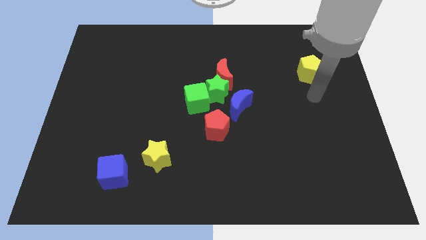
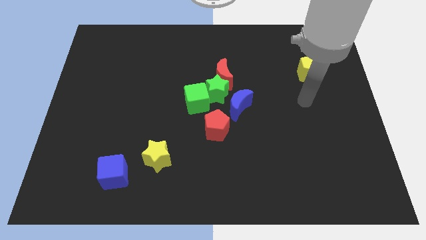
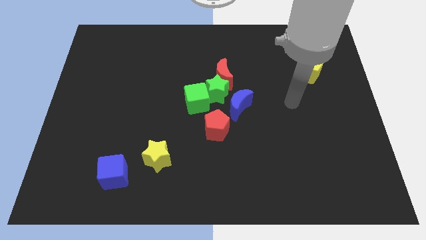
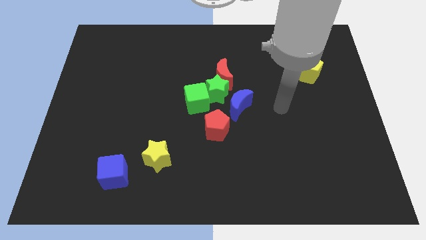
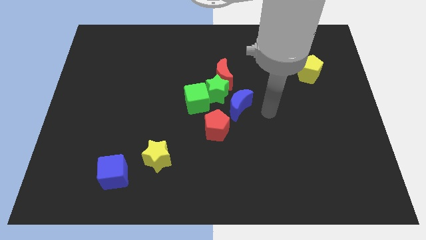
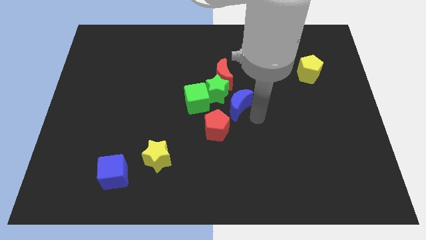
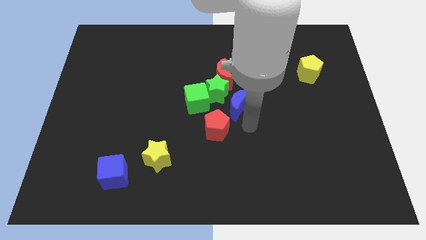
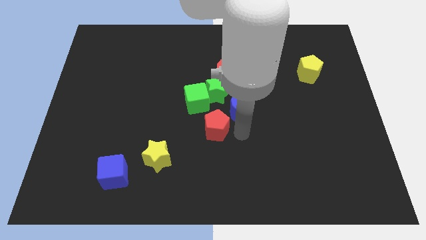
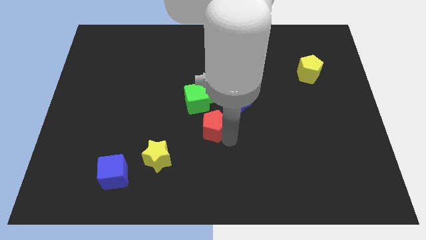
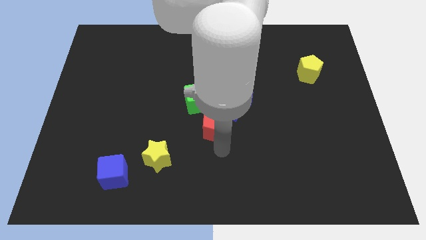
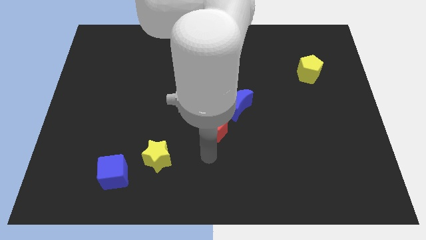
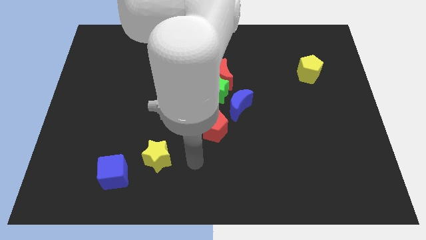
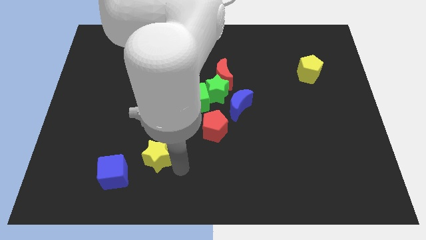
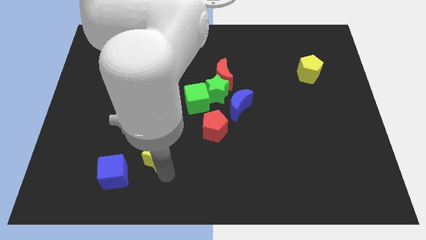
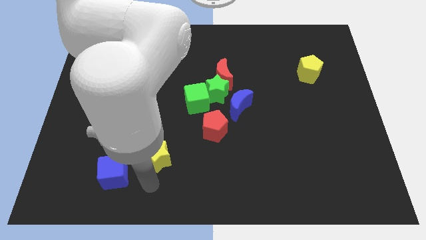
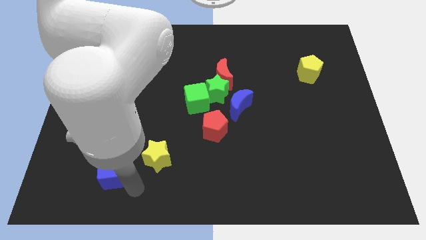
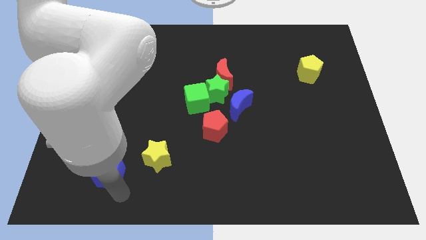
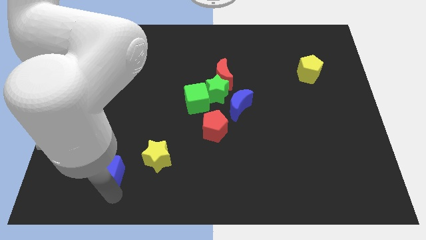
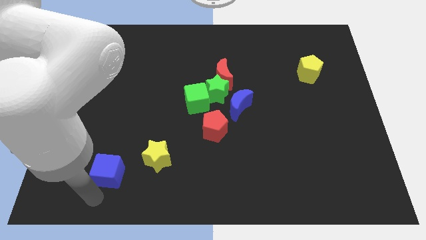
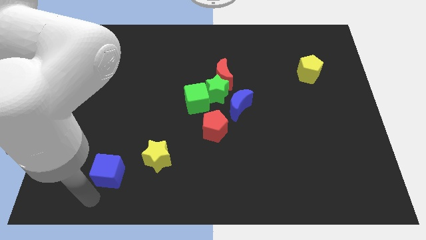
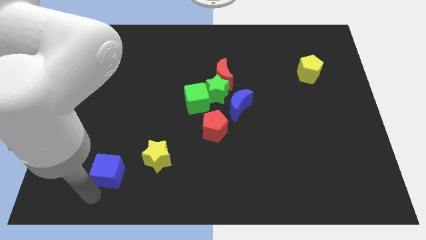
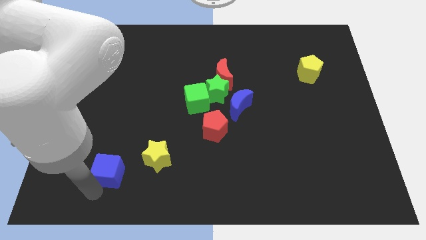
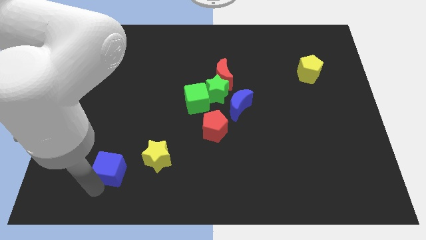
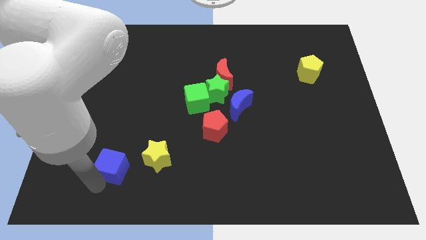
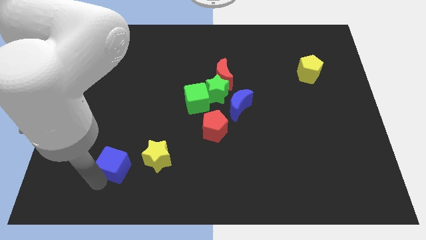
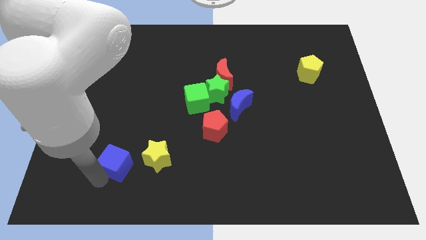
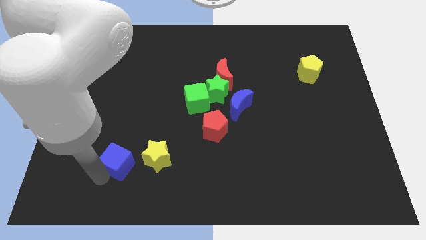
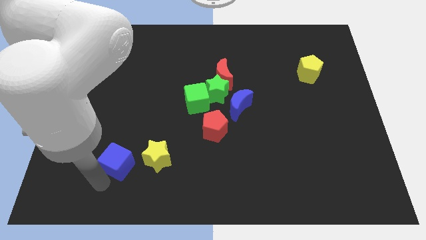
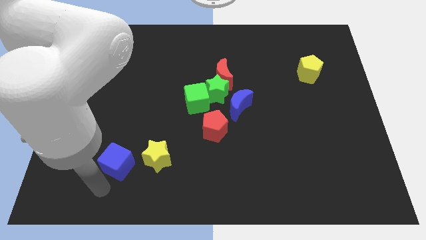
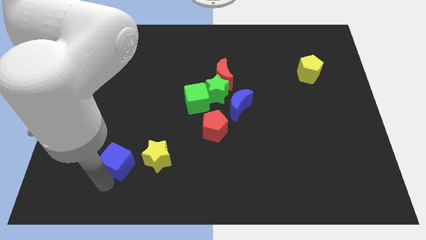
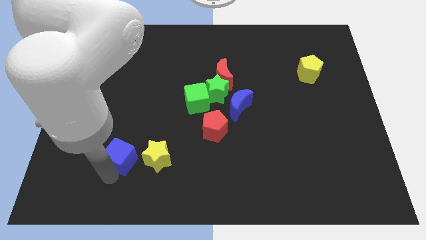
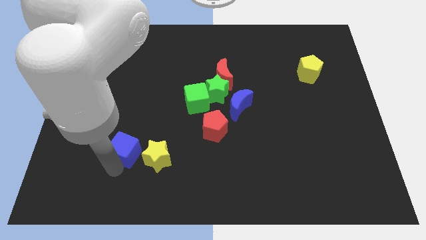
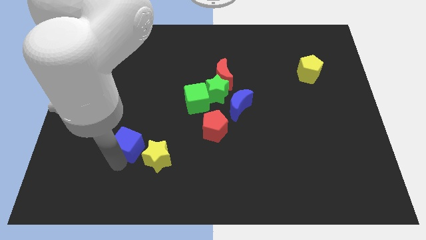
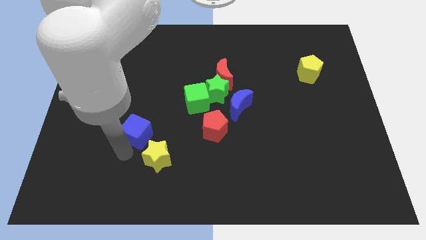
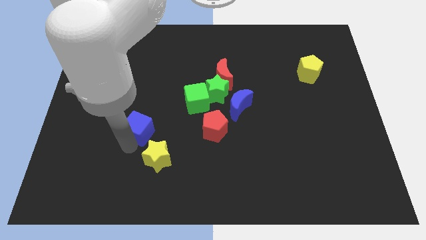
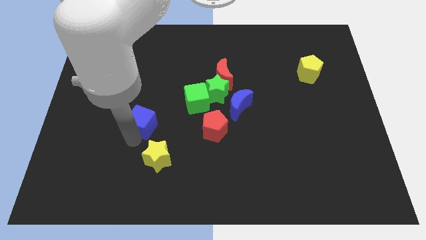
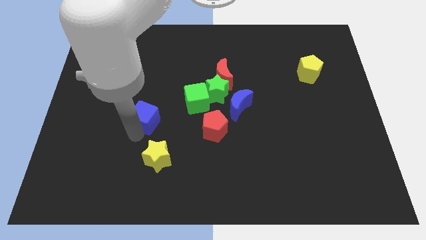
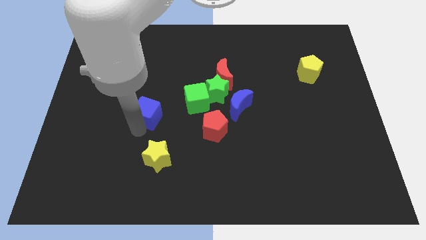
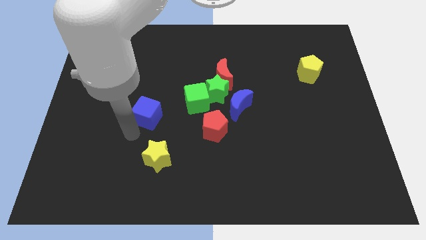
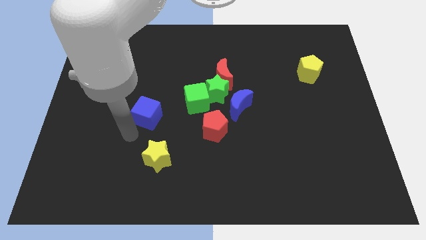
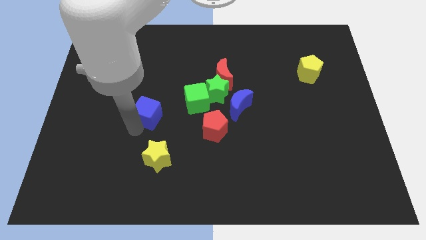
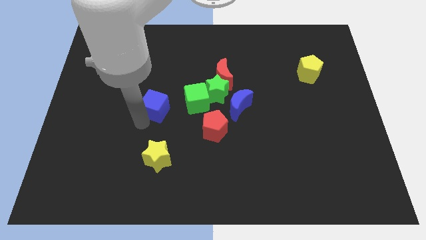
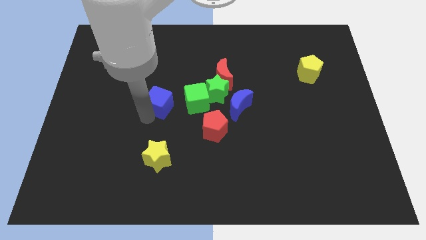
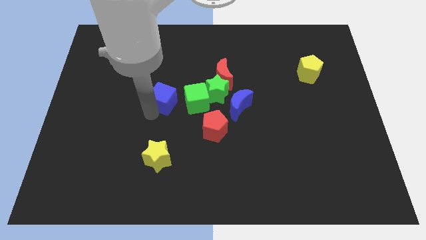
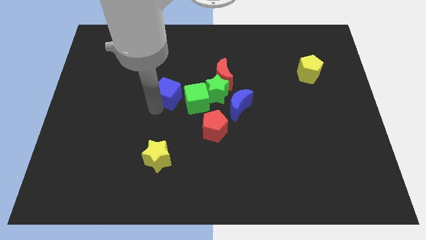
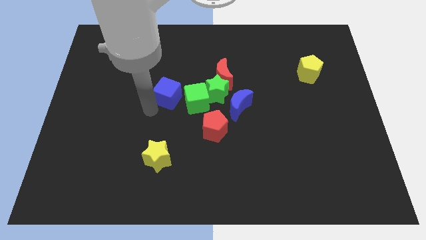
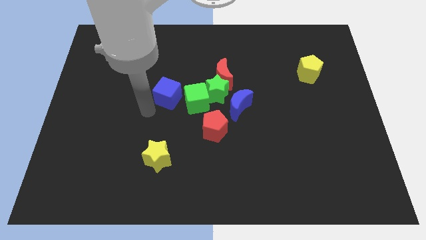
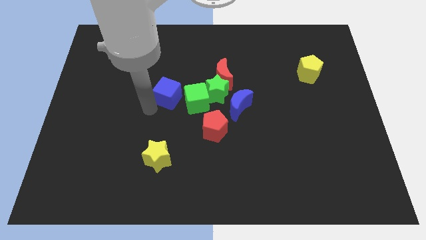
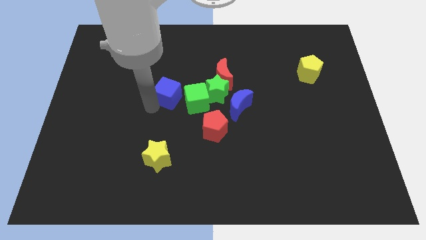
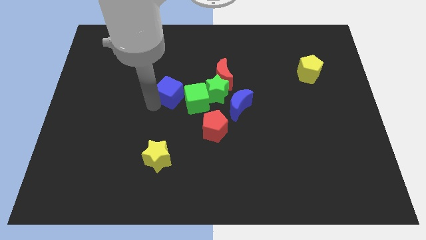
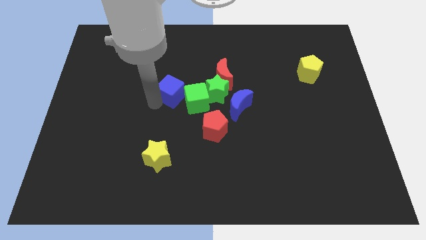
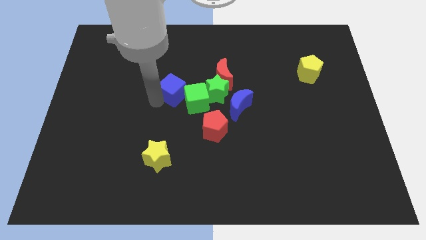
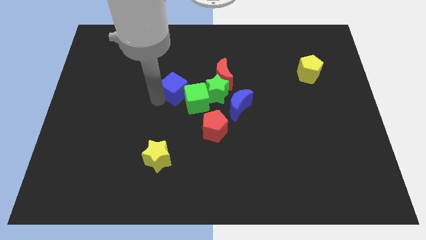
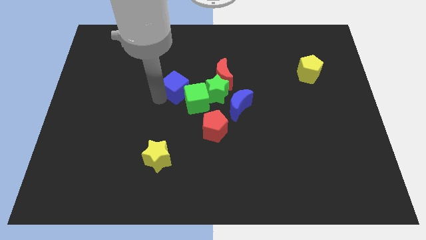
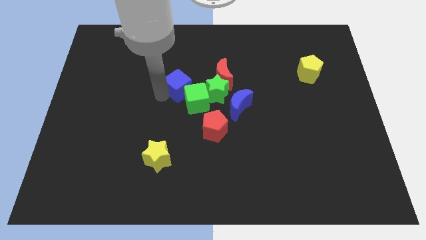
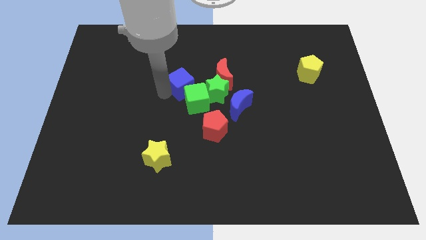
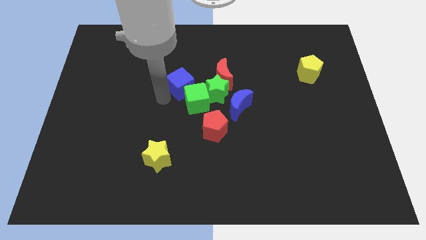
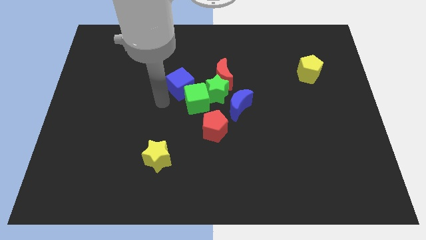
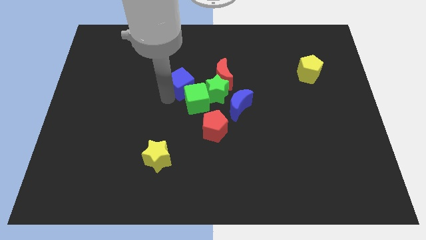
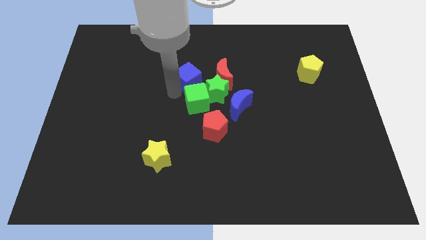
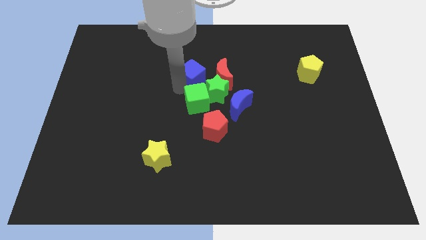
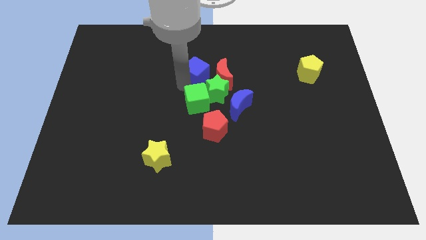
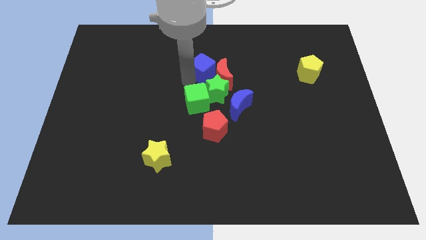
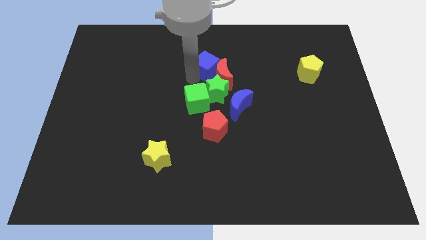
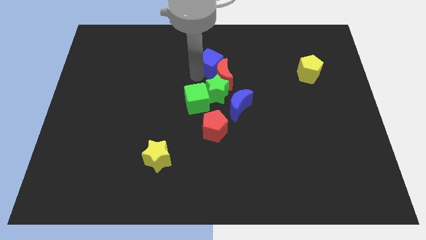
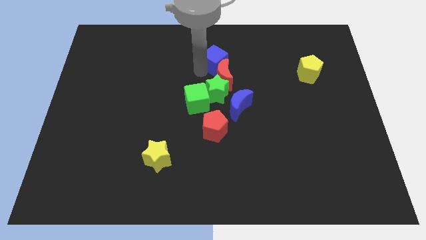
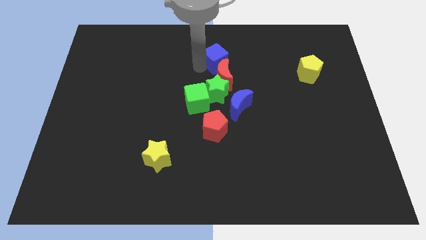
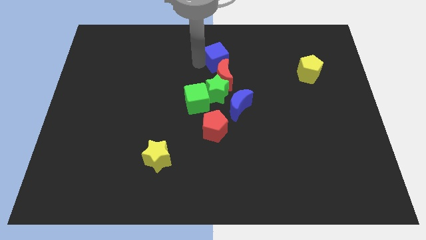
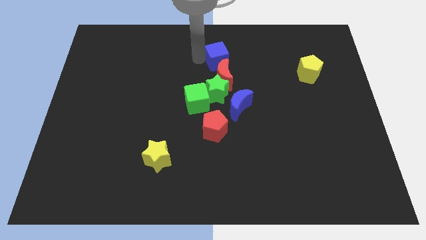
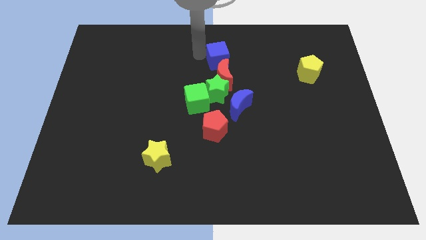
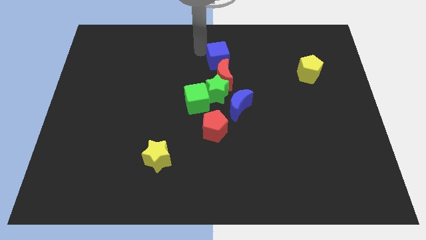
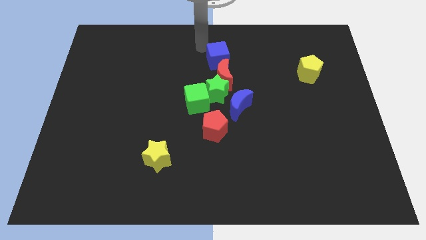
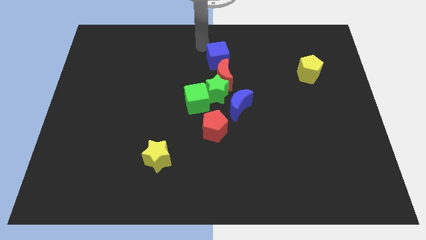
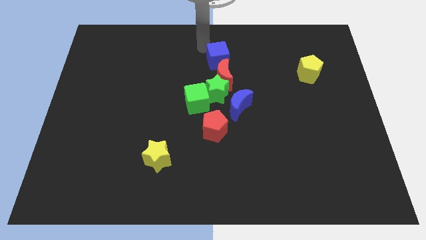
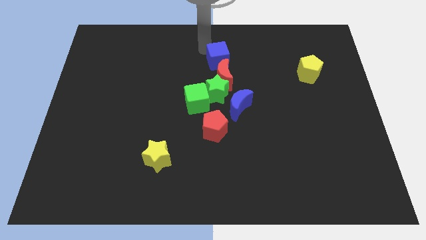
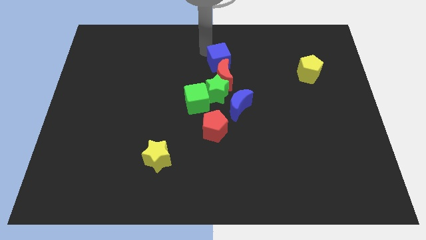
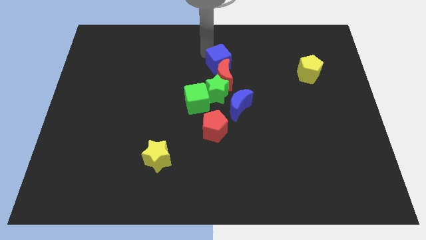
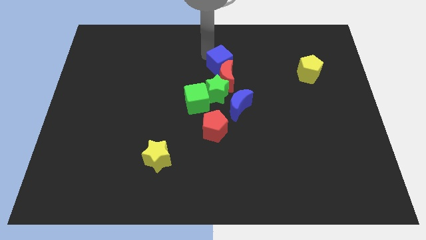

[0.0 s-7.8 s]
put the blue cube above the blue moon

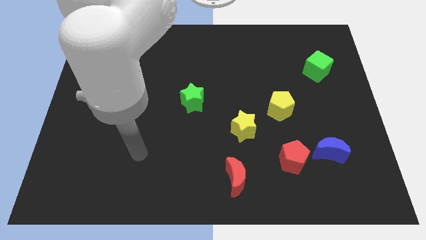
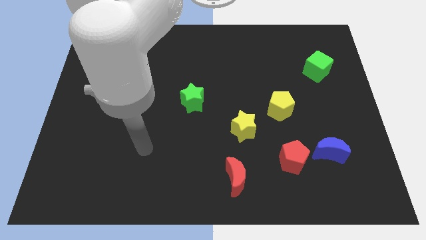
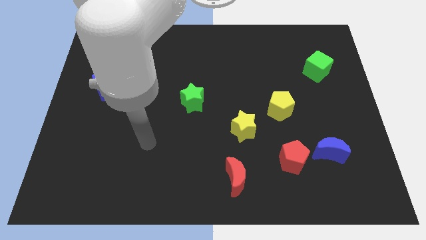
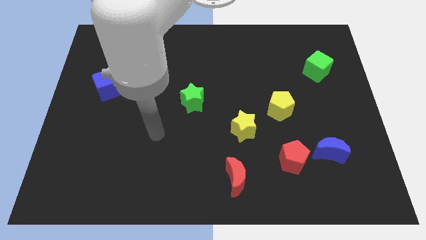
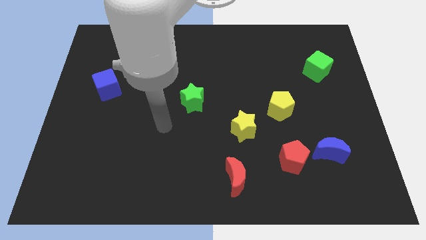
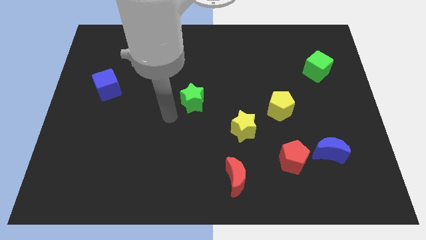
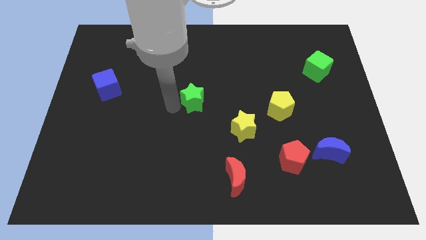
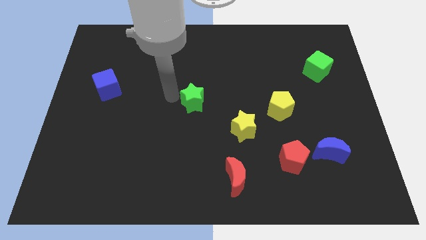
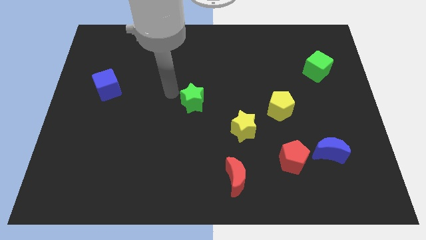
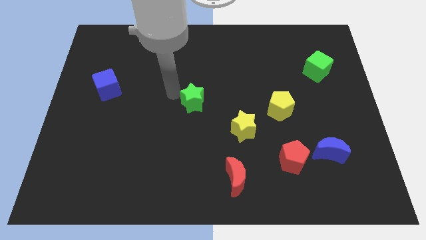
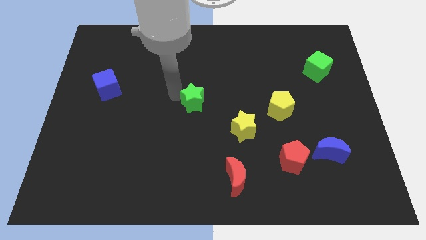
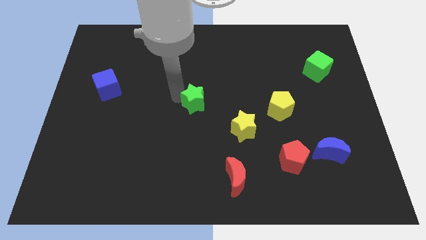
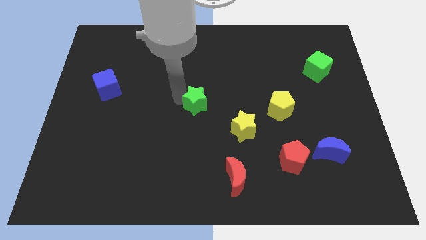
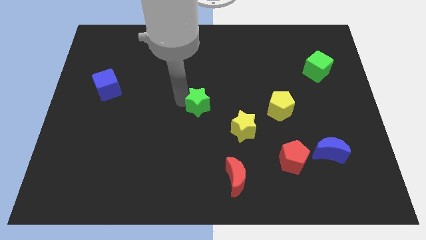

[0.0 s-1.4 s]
slide the green star to the top left of the yellow star
